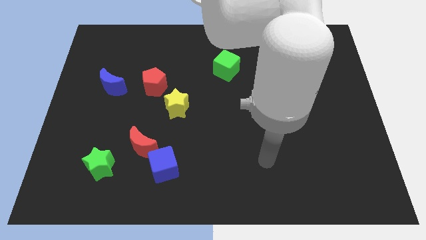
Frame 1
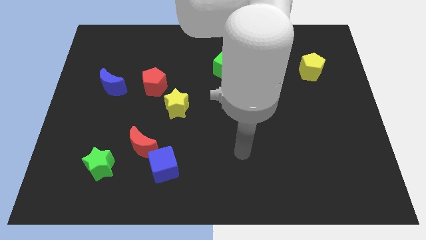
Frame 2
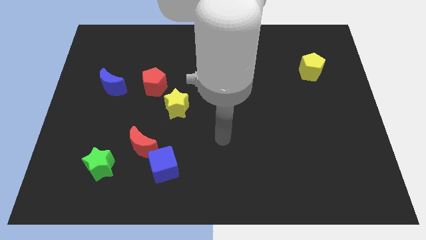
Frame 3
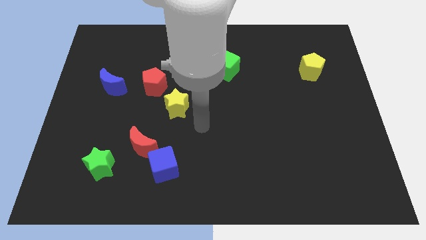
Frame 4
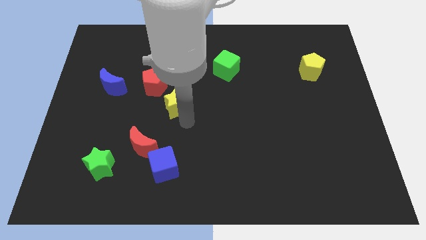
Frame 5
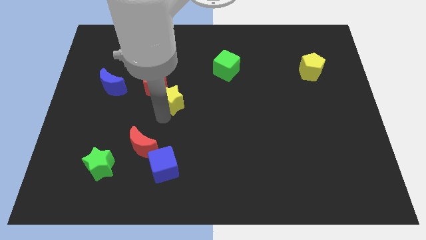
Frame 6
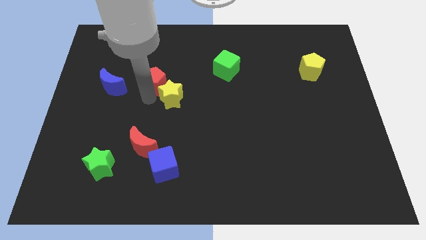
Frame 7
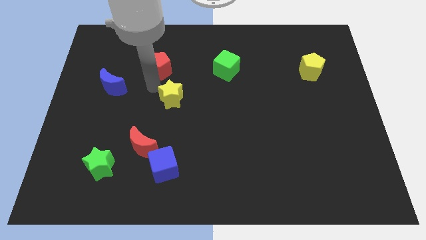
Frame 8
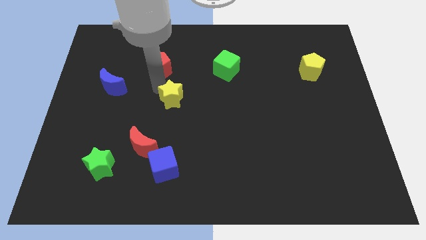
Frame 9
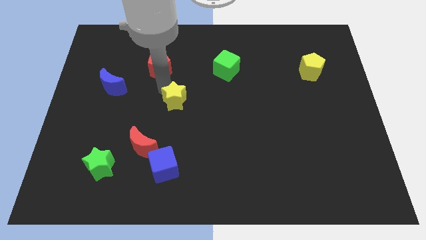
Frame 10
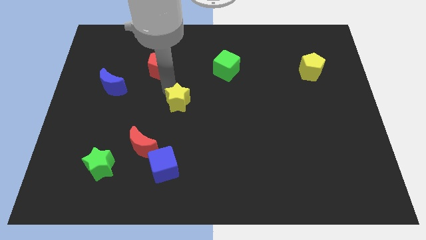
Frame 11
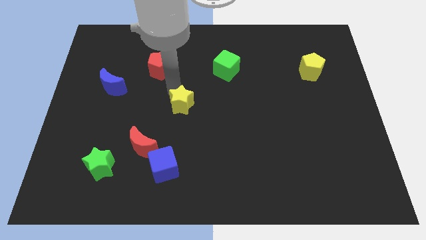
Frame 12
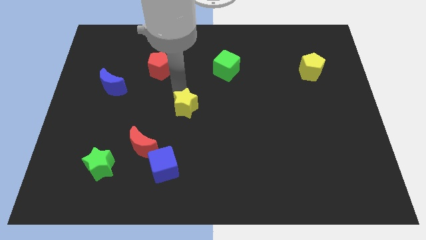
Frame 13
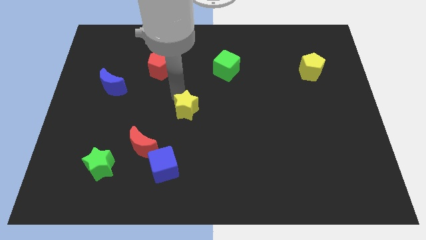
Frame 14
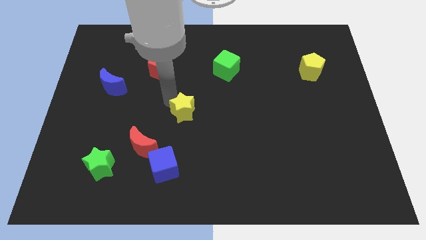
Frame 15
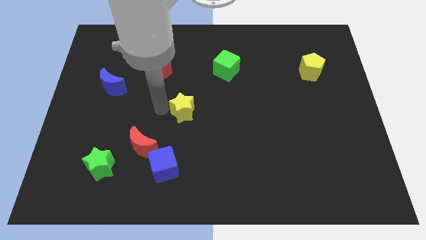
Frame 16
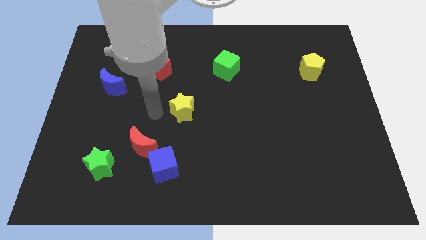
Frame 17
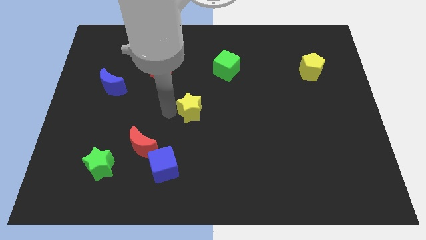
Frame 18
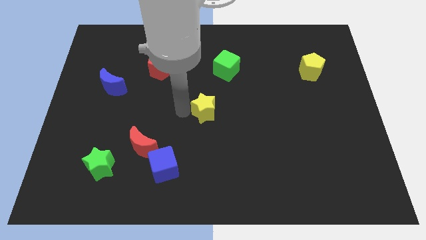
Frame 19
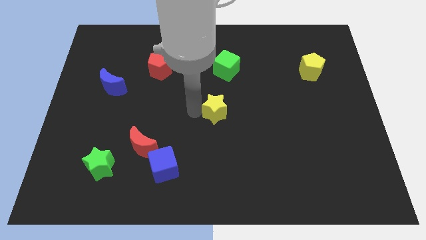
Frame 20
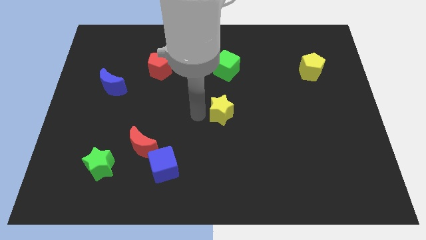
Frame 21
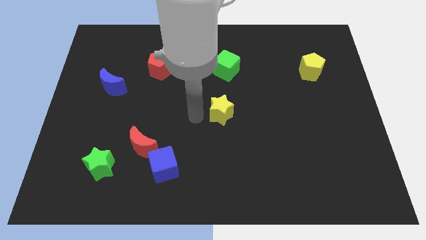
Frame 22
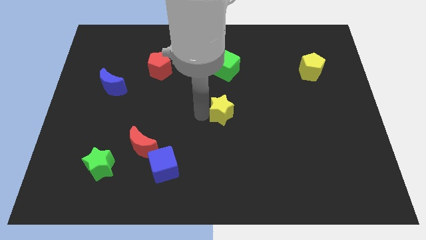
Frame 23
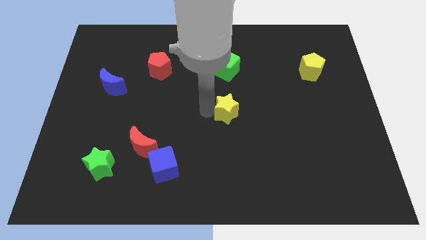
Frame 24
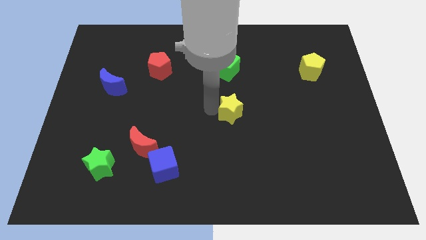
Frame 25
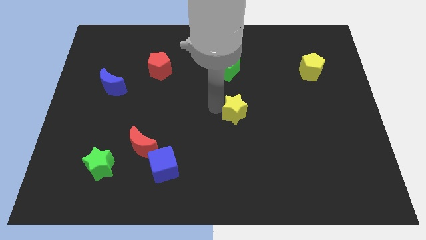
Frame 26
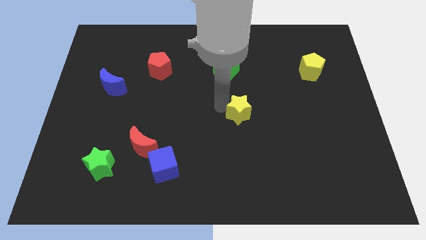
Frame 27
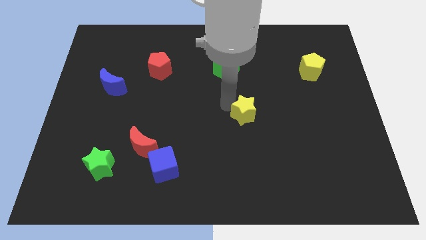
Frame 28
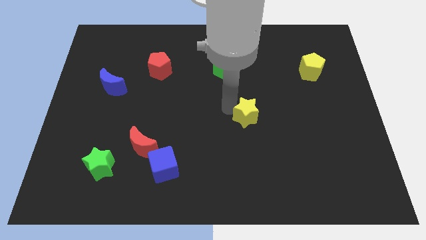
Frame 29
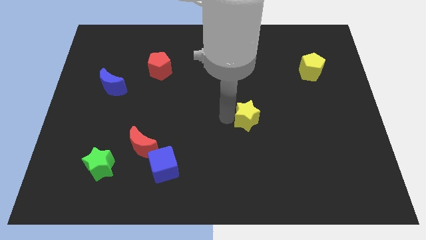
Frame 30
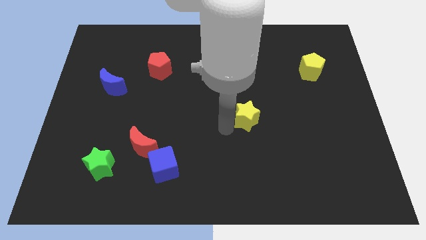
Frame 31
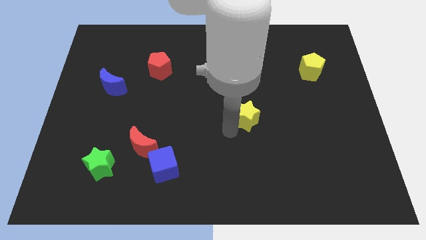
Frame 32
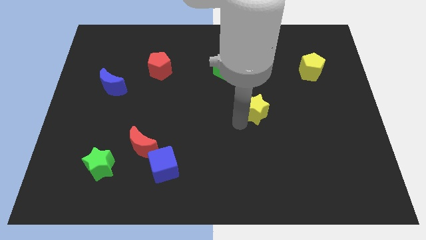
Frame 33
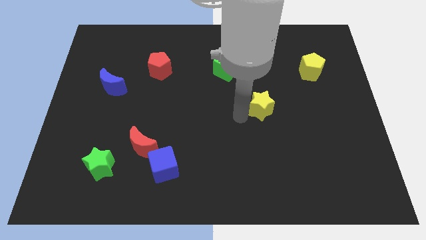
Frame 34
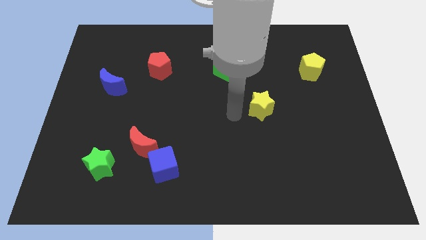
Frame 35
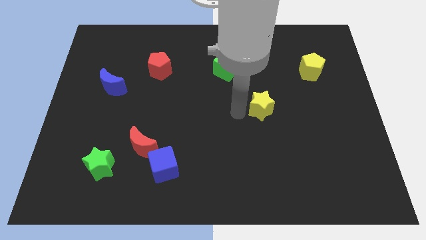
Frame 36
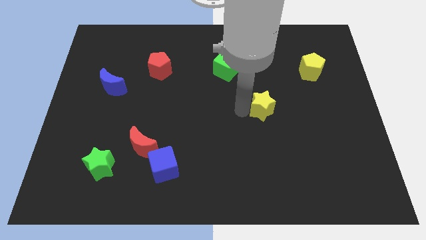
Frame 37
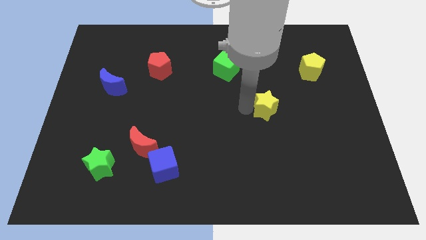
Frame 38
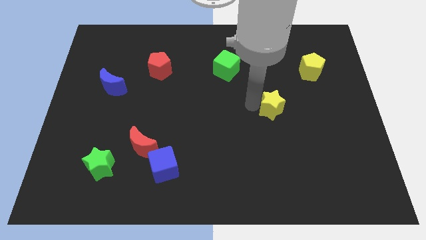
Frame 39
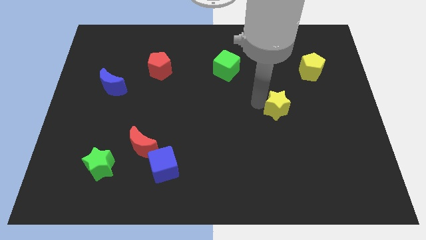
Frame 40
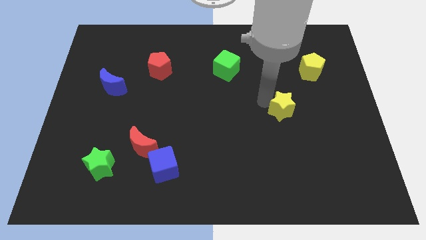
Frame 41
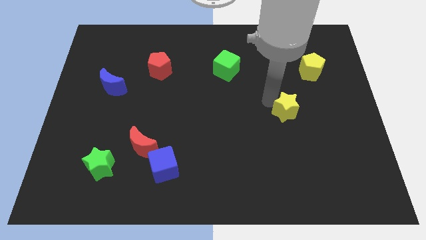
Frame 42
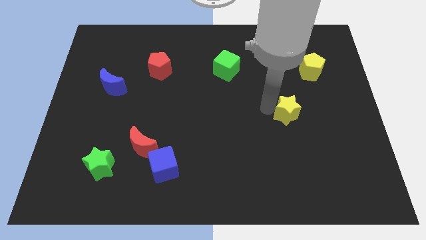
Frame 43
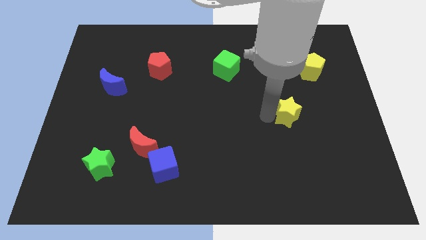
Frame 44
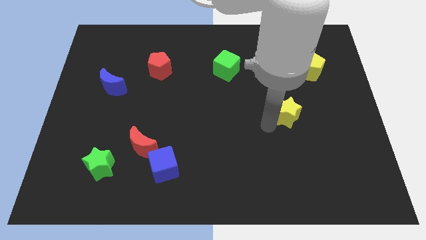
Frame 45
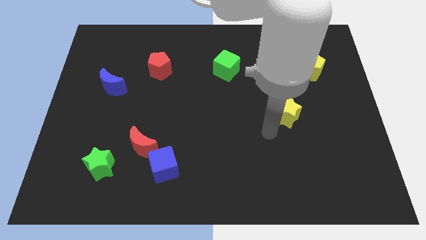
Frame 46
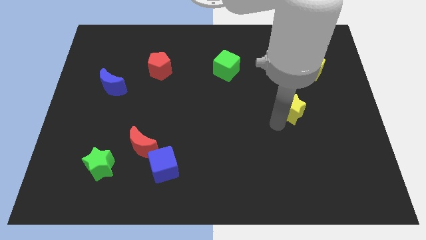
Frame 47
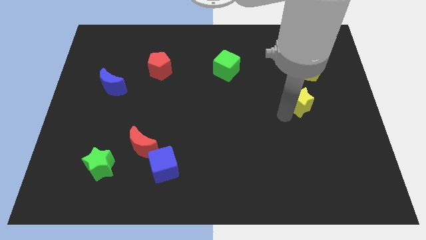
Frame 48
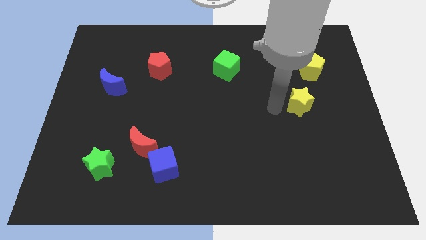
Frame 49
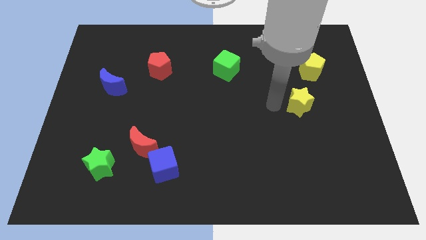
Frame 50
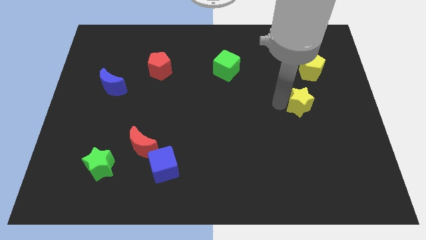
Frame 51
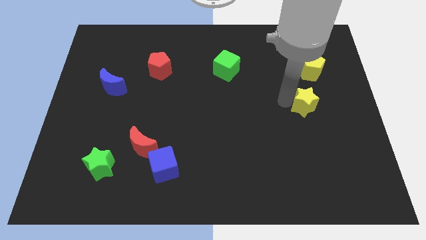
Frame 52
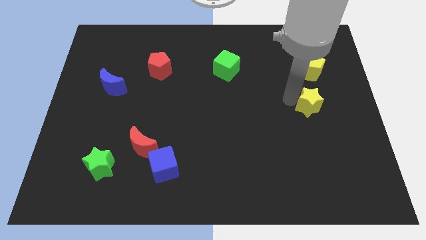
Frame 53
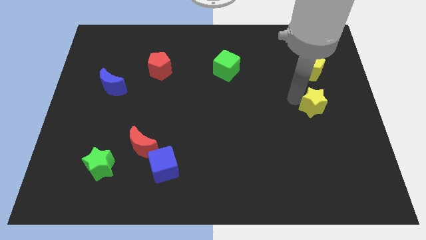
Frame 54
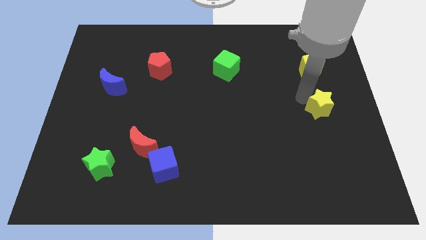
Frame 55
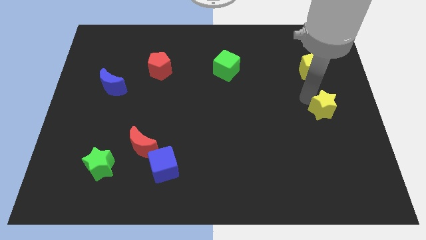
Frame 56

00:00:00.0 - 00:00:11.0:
slide the yellow star to the right side of the board

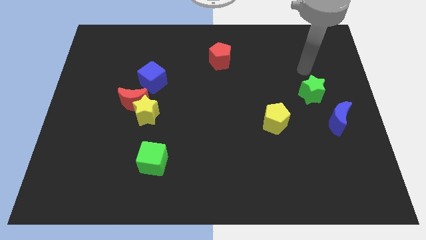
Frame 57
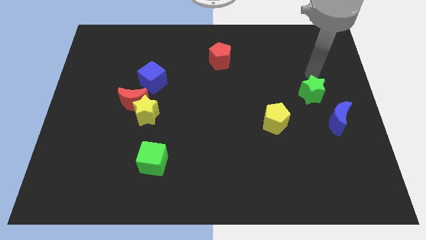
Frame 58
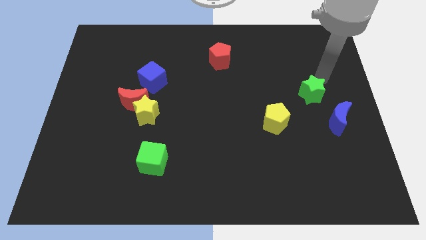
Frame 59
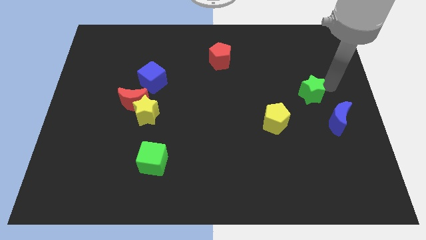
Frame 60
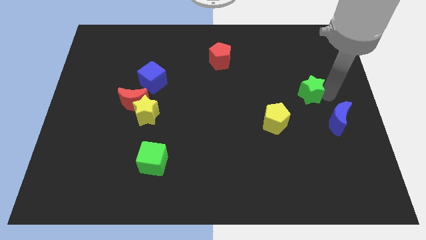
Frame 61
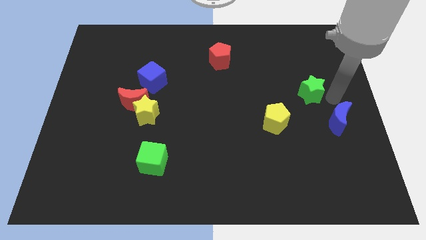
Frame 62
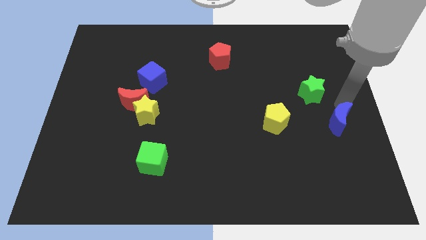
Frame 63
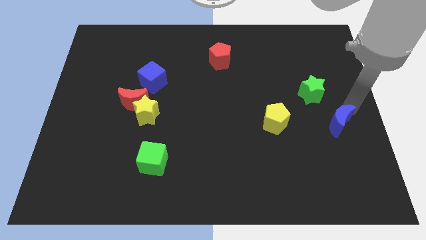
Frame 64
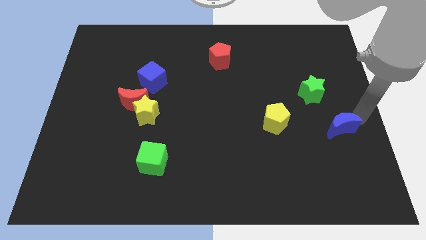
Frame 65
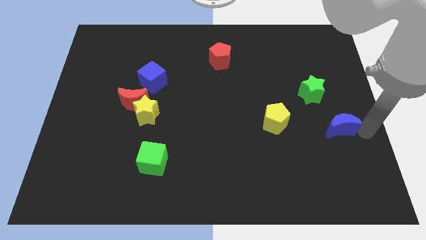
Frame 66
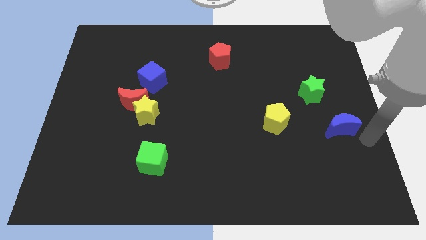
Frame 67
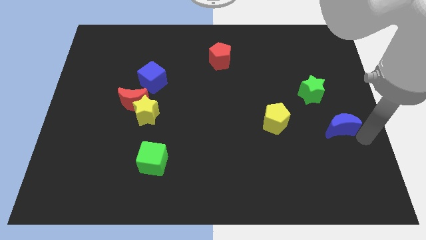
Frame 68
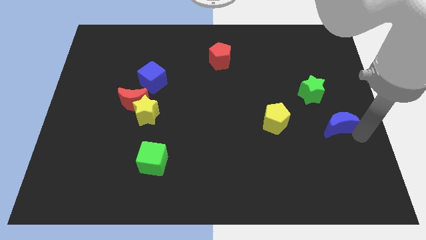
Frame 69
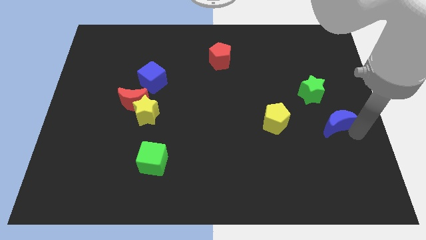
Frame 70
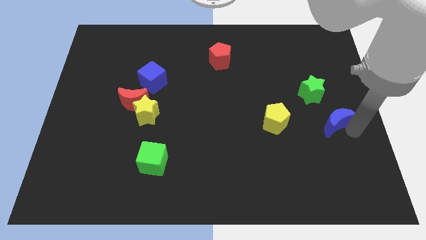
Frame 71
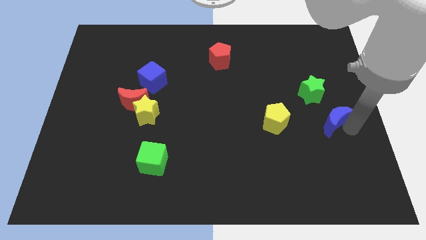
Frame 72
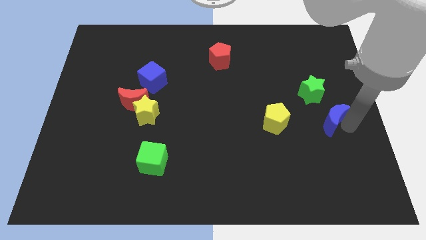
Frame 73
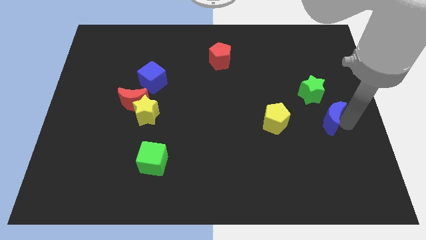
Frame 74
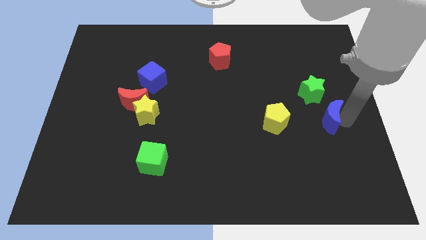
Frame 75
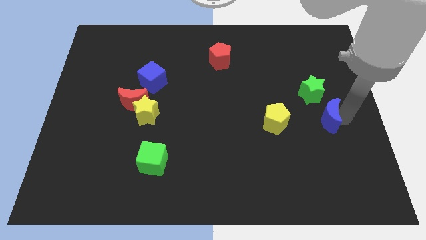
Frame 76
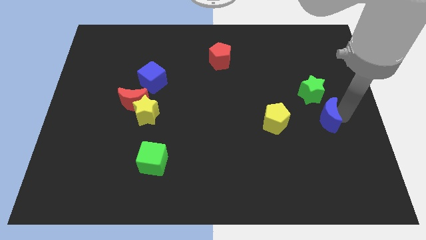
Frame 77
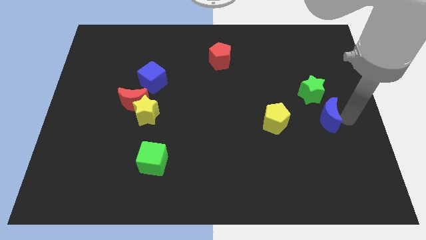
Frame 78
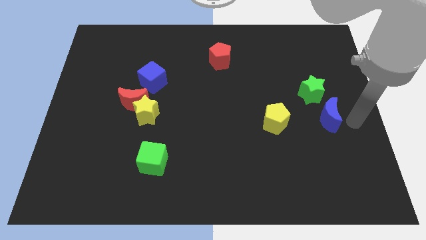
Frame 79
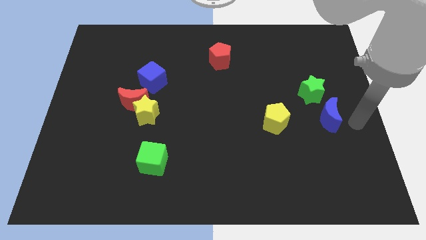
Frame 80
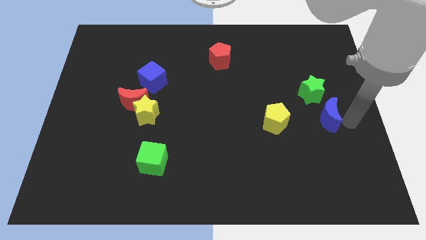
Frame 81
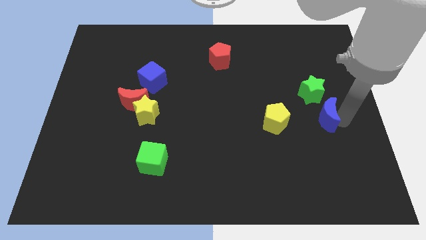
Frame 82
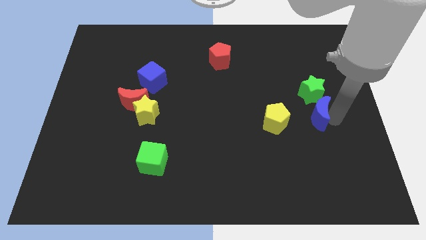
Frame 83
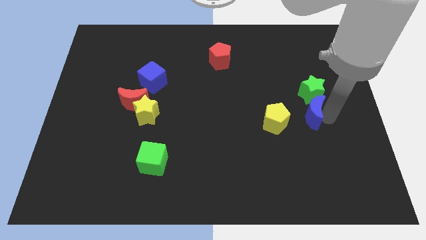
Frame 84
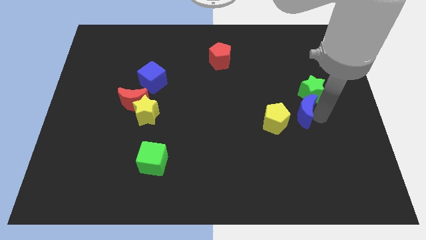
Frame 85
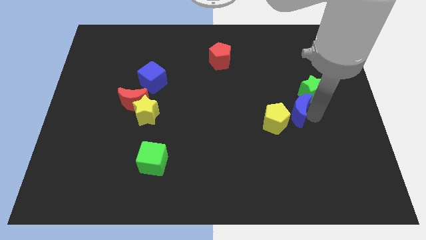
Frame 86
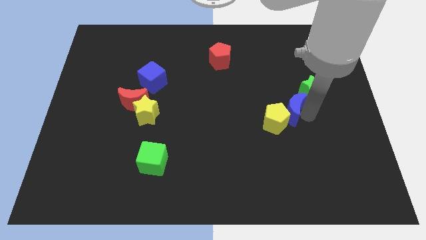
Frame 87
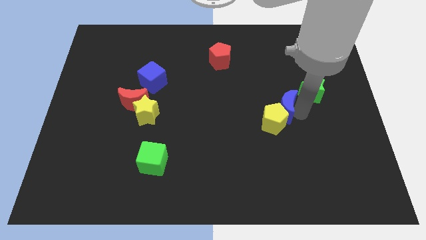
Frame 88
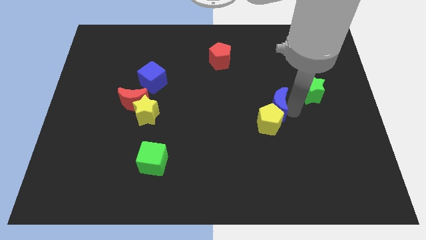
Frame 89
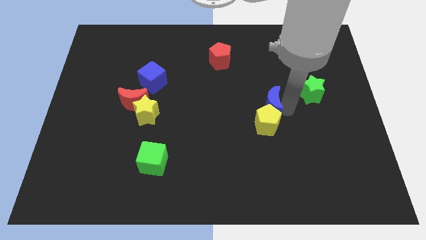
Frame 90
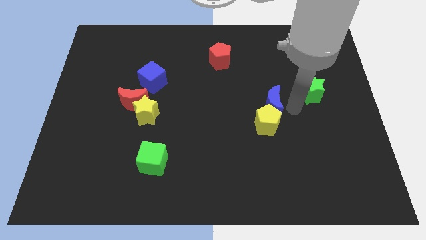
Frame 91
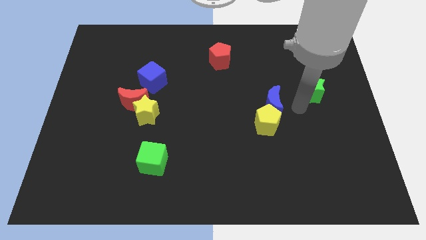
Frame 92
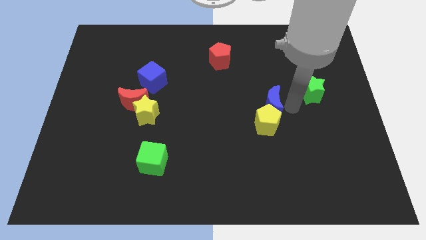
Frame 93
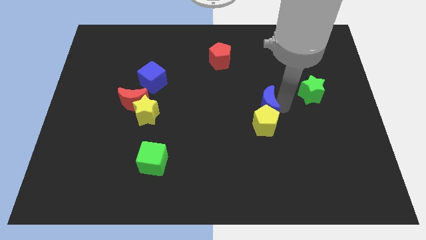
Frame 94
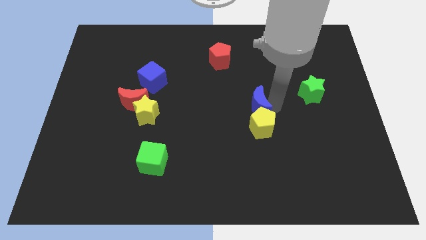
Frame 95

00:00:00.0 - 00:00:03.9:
slide the blue moon to the center
